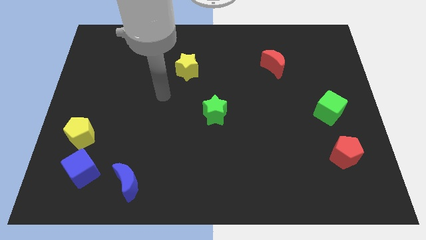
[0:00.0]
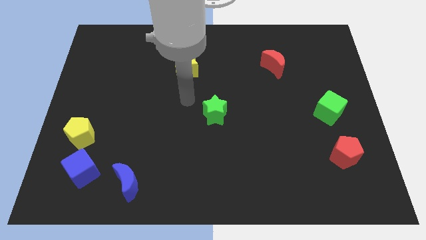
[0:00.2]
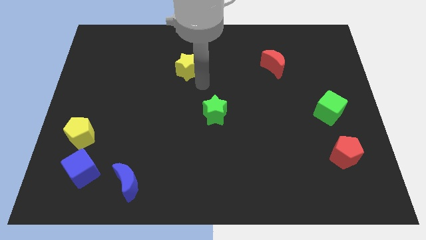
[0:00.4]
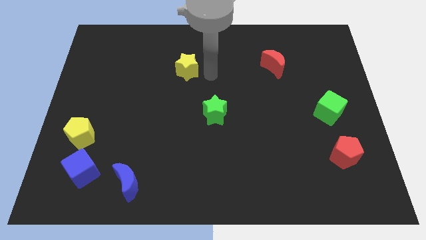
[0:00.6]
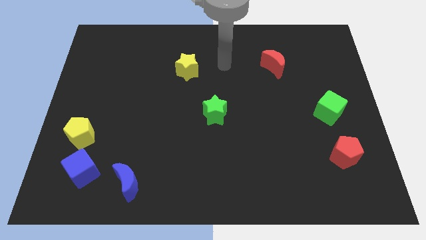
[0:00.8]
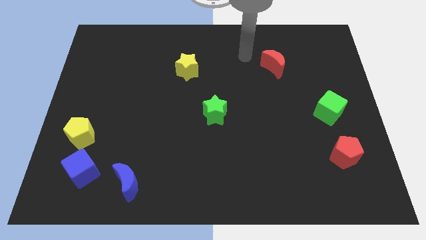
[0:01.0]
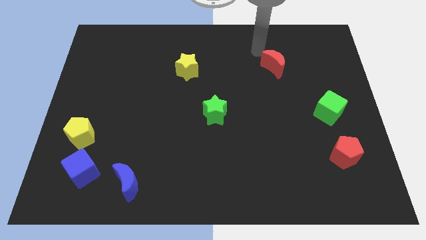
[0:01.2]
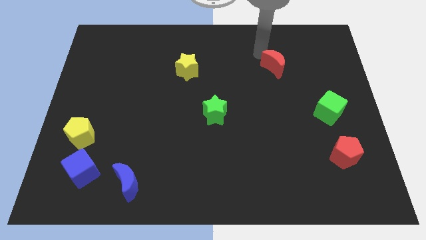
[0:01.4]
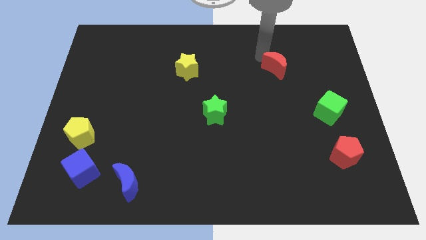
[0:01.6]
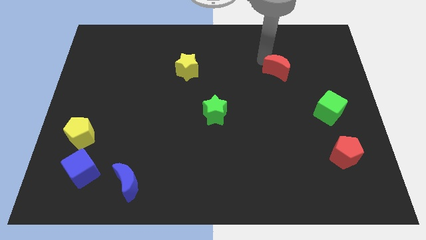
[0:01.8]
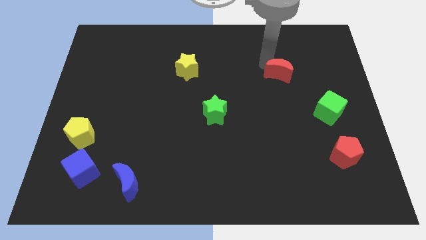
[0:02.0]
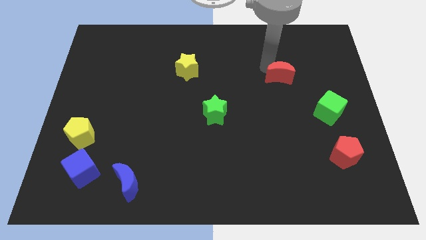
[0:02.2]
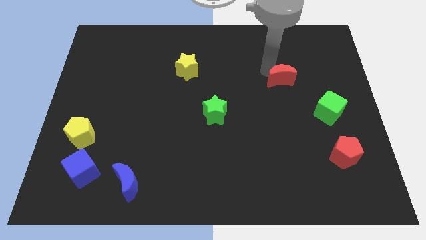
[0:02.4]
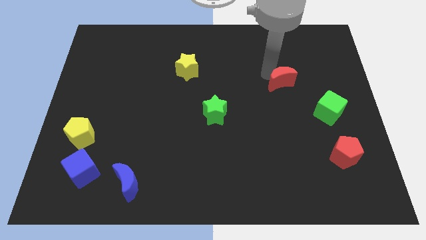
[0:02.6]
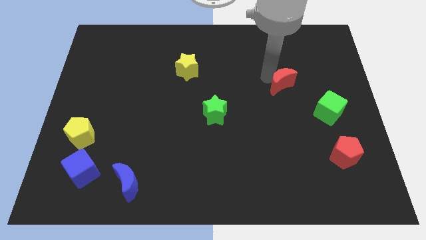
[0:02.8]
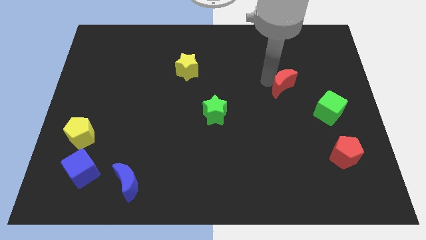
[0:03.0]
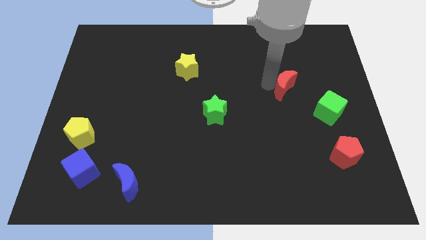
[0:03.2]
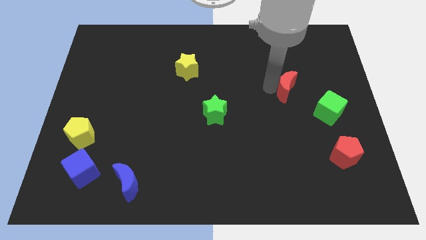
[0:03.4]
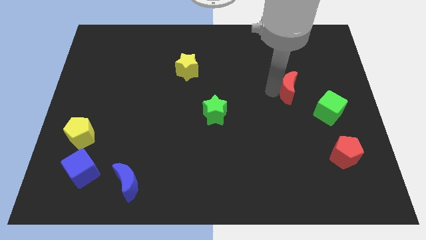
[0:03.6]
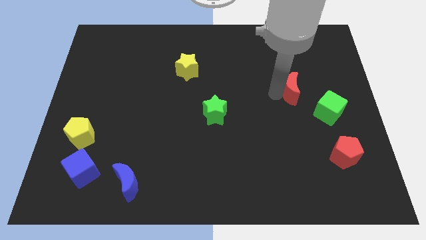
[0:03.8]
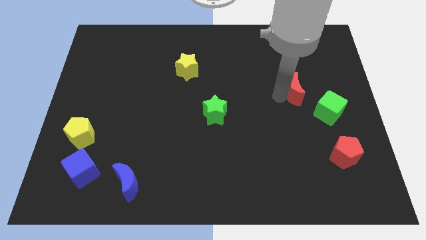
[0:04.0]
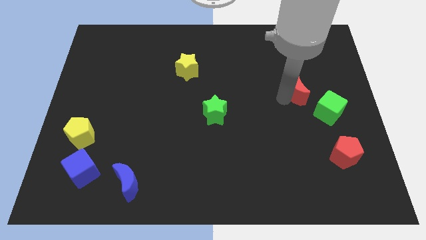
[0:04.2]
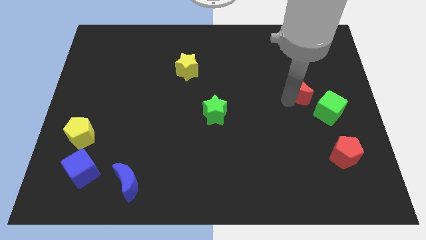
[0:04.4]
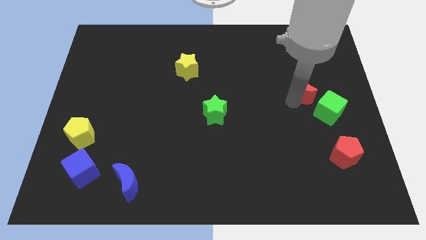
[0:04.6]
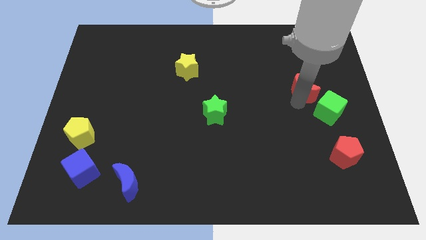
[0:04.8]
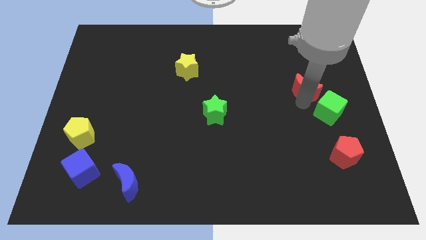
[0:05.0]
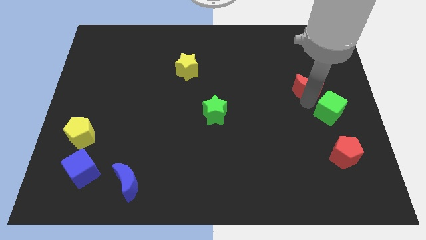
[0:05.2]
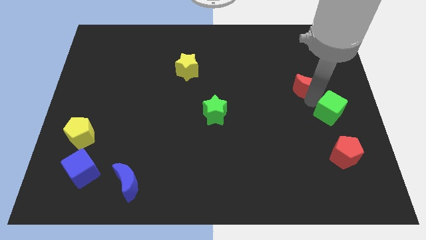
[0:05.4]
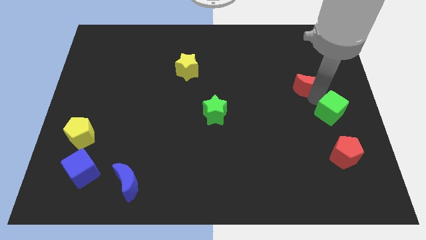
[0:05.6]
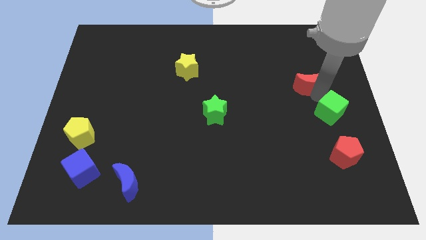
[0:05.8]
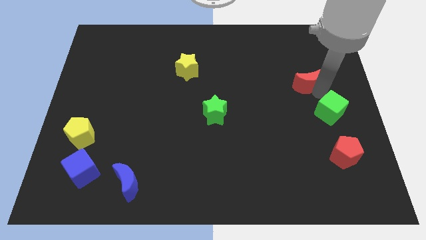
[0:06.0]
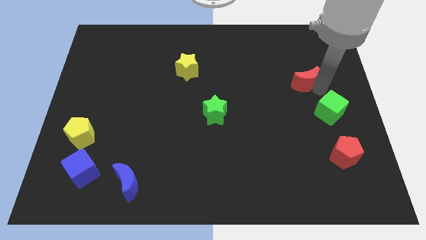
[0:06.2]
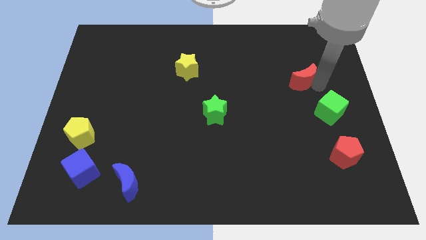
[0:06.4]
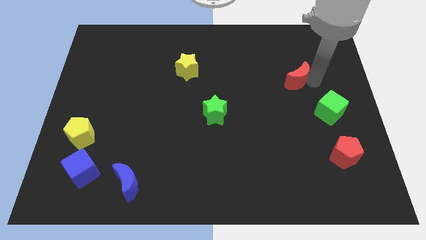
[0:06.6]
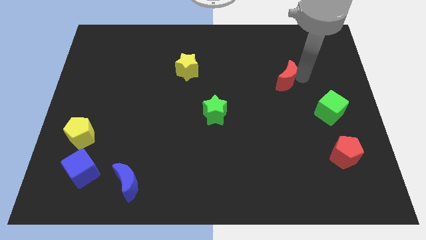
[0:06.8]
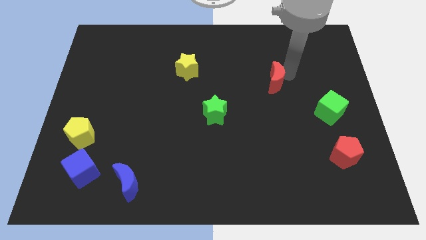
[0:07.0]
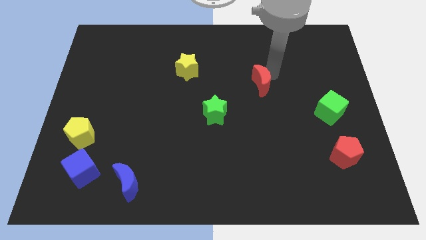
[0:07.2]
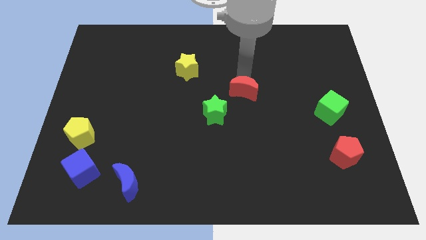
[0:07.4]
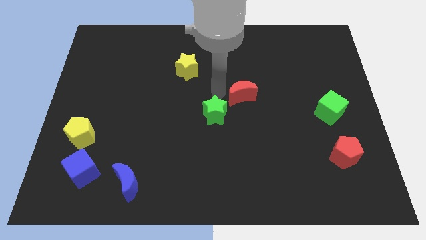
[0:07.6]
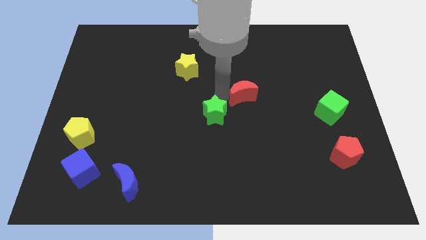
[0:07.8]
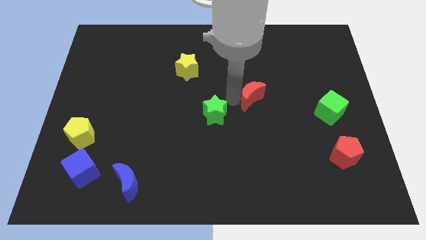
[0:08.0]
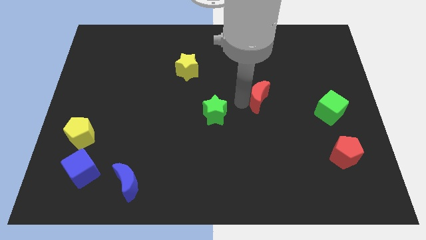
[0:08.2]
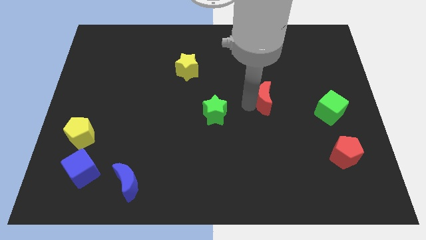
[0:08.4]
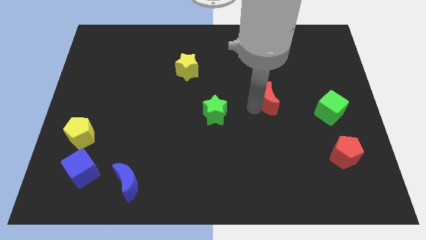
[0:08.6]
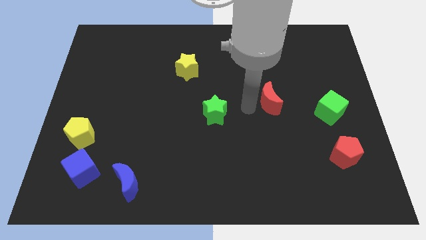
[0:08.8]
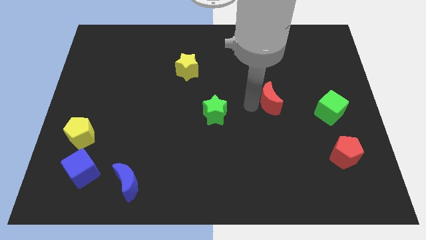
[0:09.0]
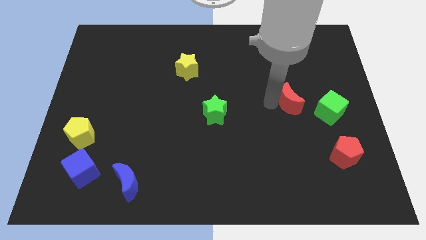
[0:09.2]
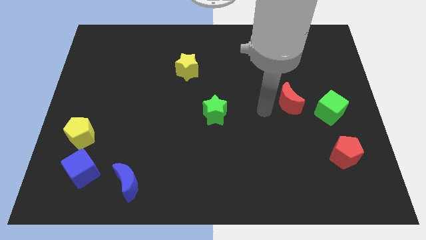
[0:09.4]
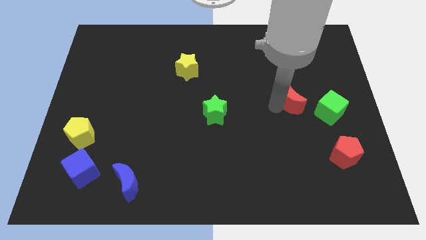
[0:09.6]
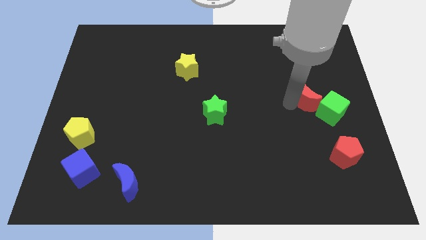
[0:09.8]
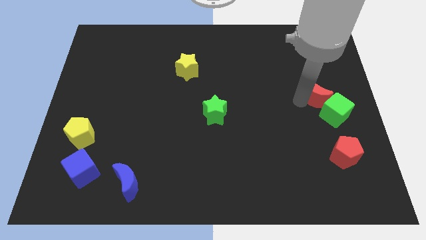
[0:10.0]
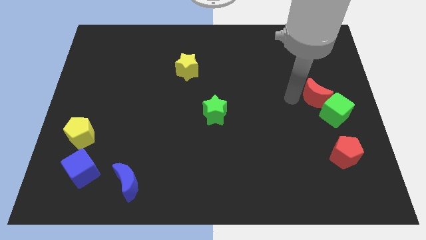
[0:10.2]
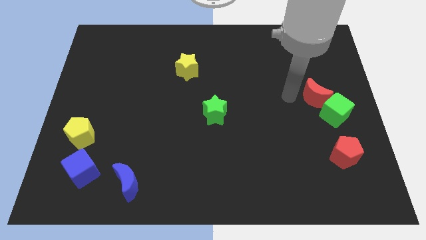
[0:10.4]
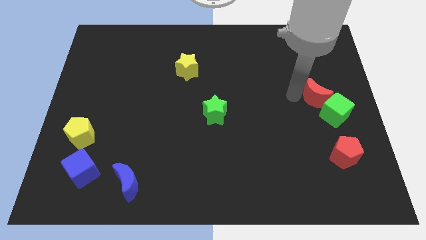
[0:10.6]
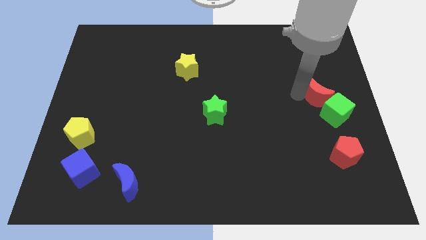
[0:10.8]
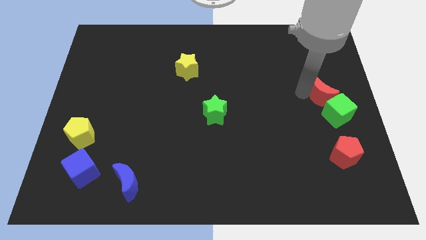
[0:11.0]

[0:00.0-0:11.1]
put the red moon to the top side of the red pentagon

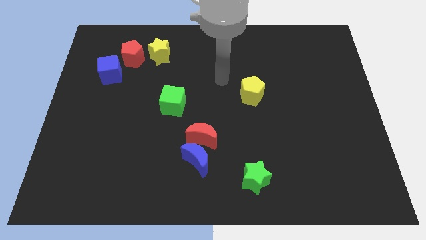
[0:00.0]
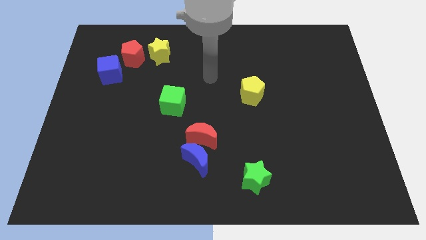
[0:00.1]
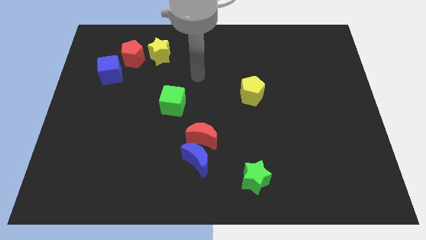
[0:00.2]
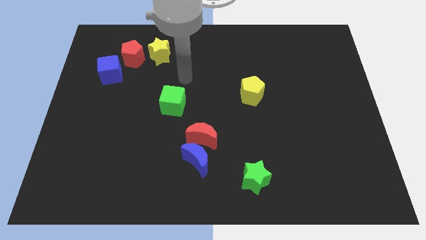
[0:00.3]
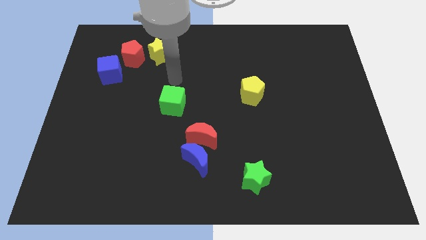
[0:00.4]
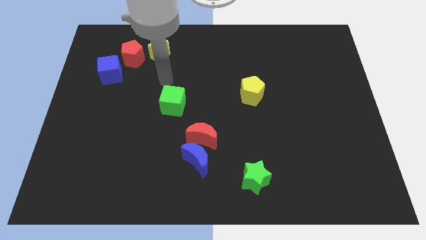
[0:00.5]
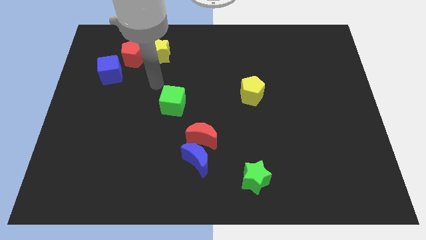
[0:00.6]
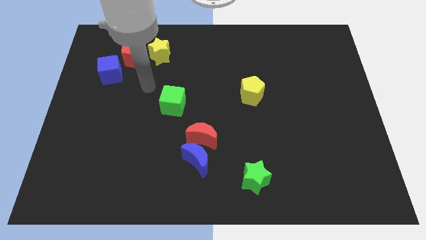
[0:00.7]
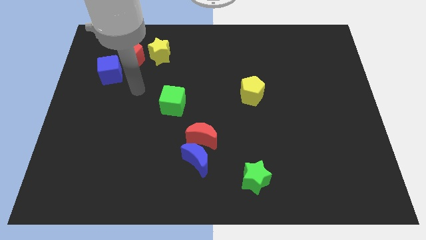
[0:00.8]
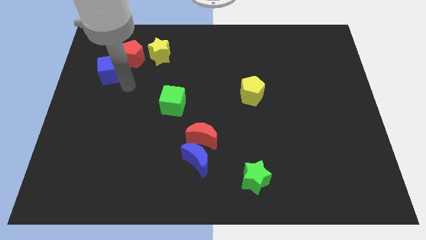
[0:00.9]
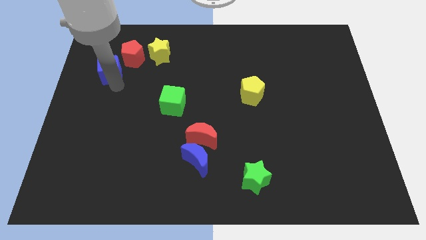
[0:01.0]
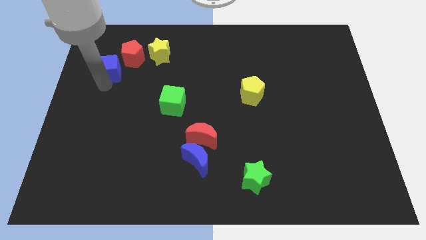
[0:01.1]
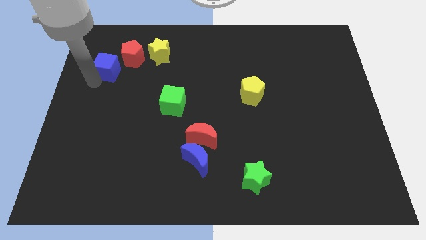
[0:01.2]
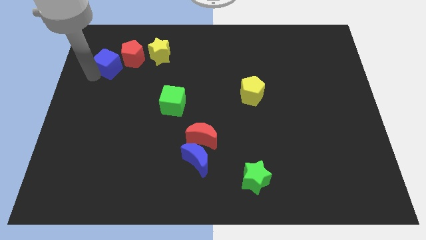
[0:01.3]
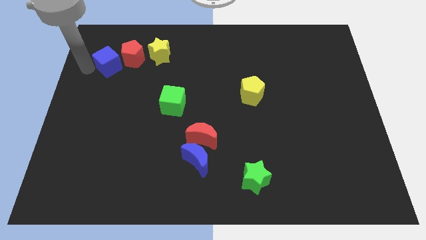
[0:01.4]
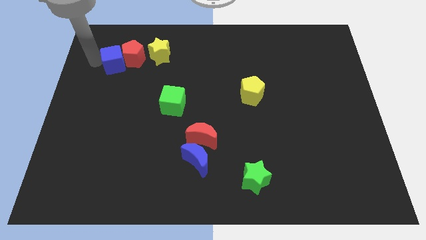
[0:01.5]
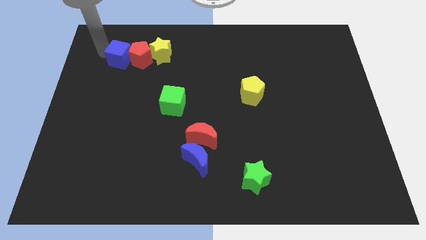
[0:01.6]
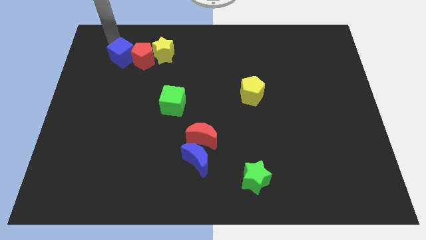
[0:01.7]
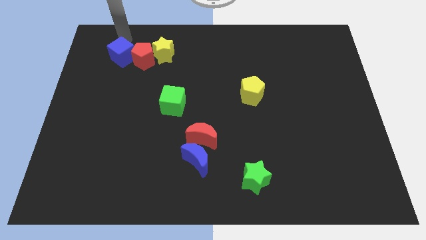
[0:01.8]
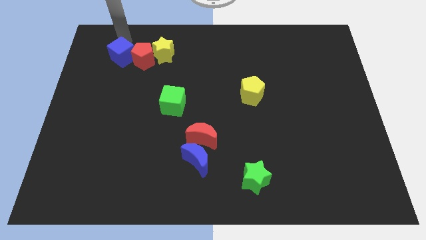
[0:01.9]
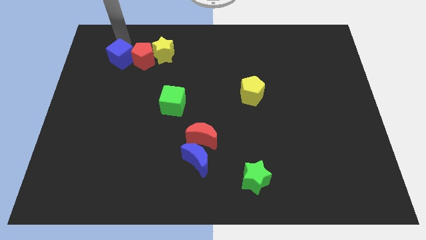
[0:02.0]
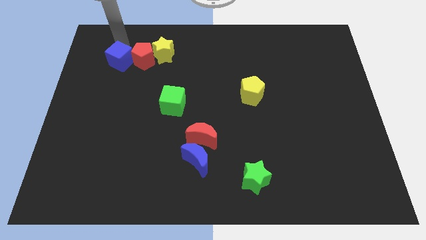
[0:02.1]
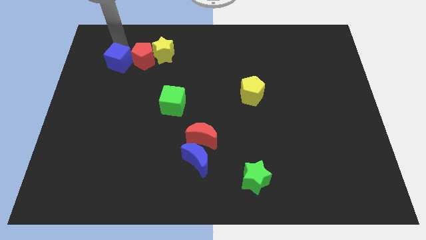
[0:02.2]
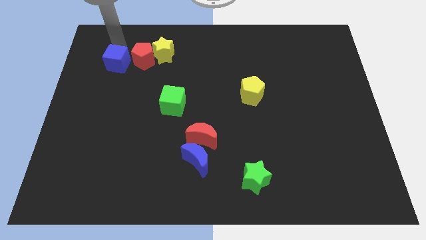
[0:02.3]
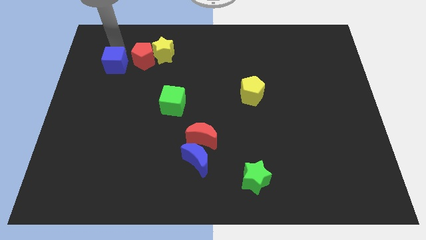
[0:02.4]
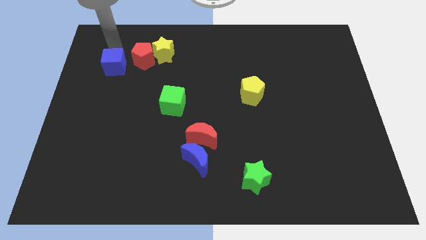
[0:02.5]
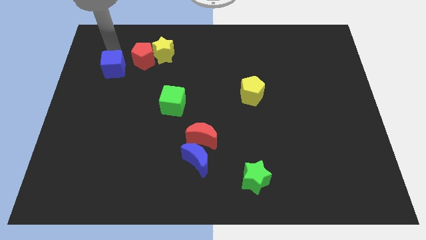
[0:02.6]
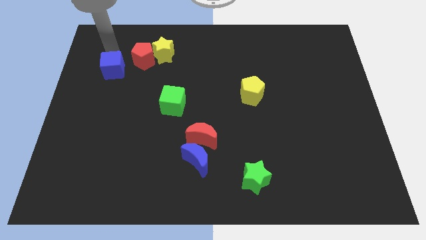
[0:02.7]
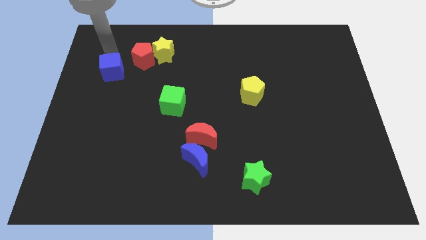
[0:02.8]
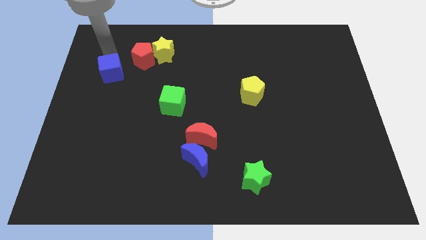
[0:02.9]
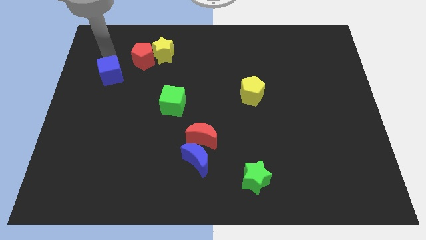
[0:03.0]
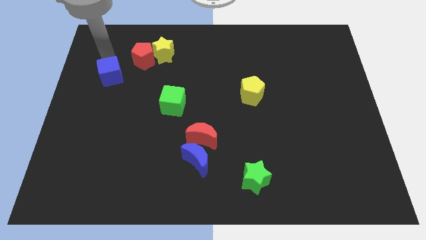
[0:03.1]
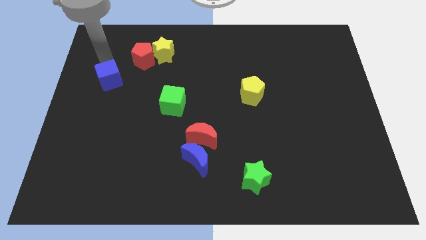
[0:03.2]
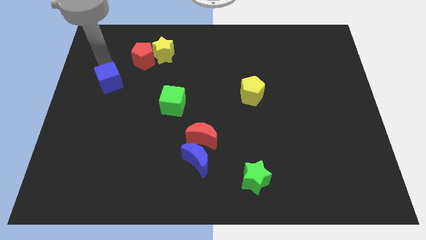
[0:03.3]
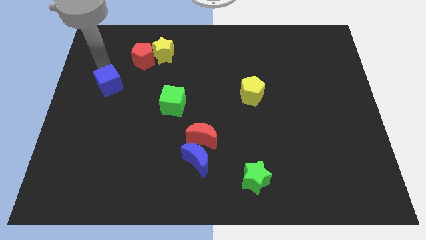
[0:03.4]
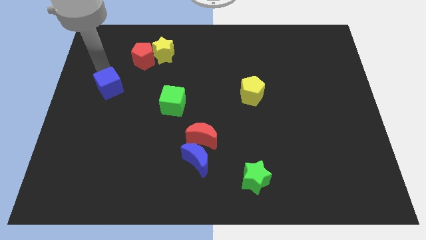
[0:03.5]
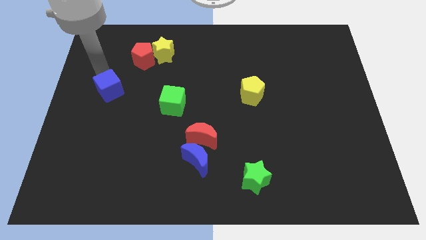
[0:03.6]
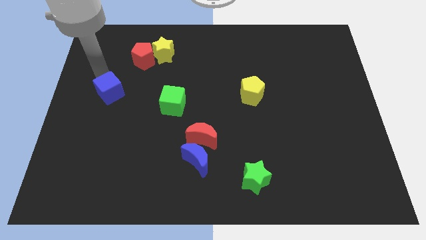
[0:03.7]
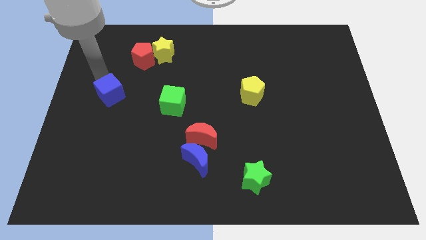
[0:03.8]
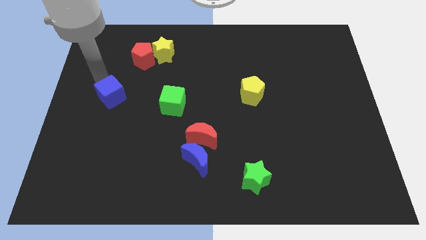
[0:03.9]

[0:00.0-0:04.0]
slide the blue cube just left of the green cube
